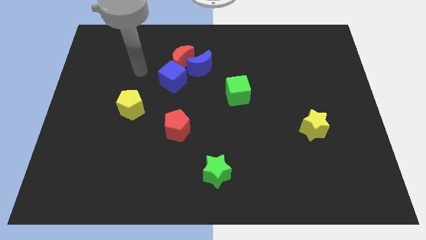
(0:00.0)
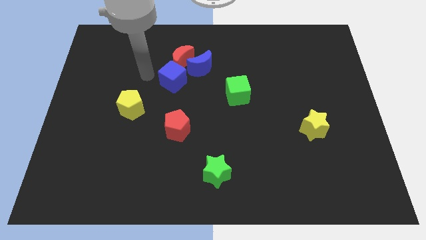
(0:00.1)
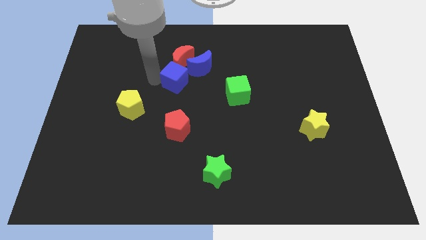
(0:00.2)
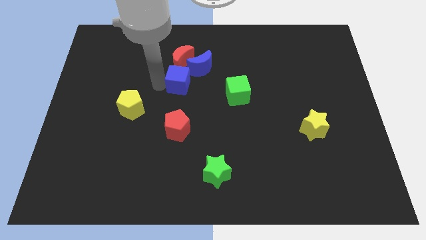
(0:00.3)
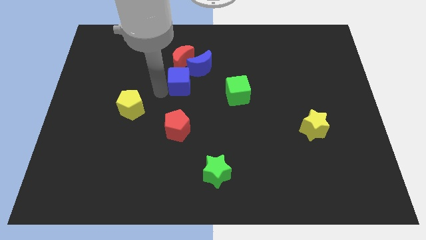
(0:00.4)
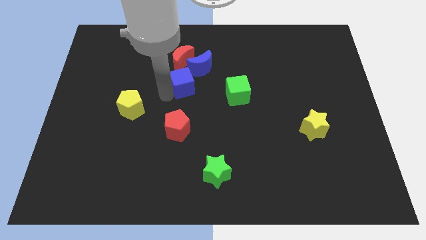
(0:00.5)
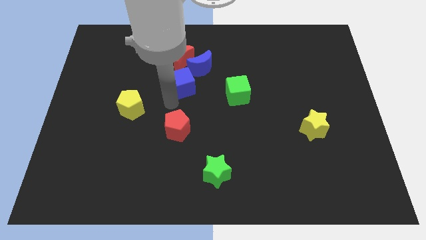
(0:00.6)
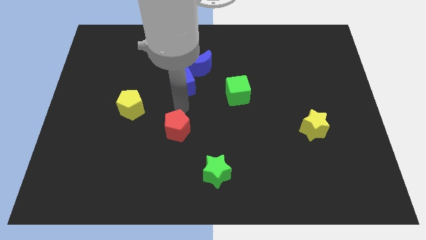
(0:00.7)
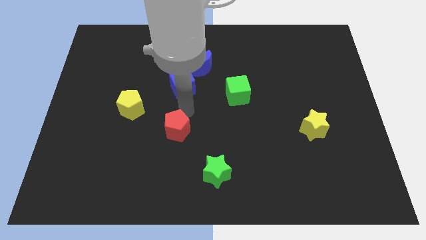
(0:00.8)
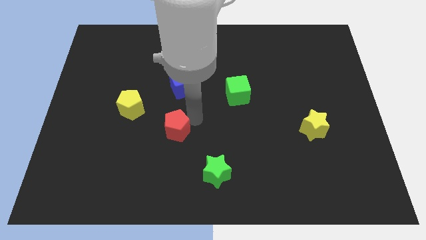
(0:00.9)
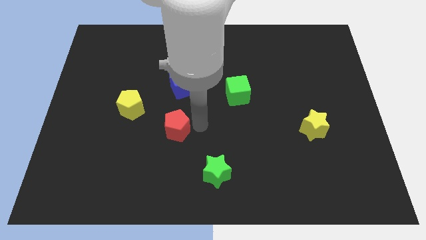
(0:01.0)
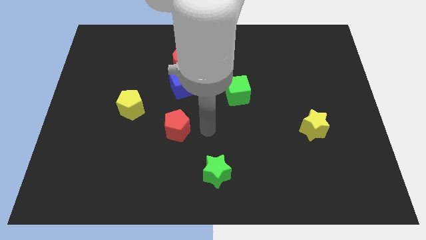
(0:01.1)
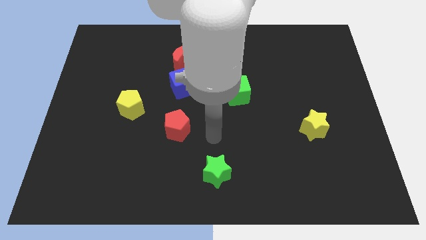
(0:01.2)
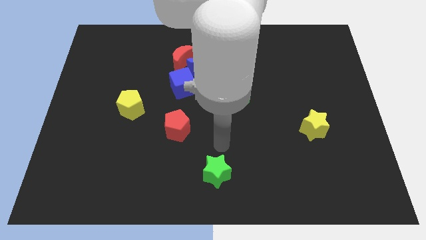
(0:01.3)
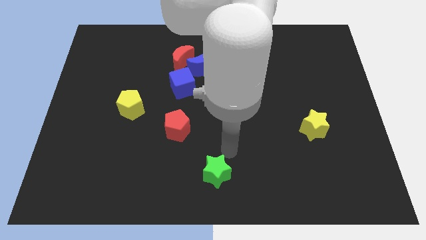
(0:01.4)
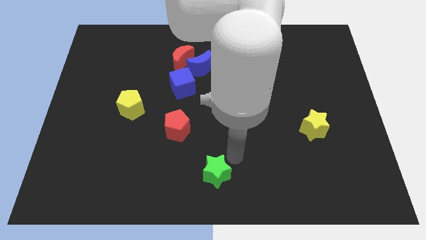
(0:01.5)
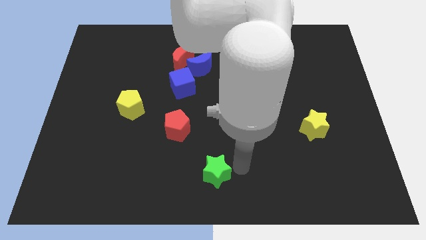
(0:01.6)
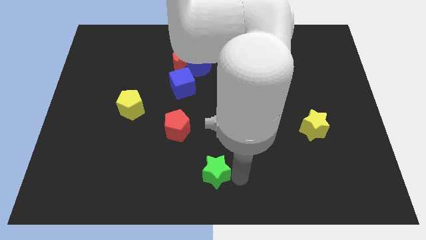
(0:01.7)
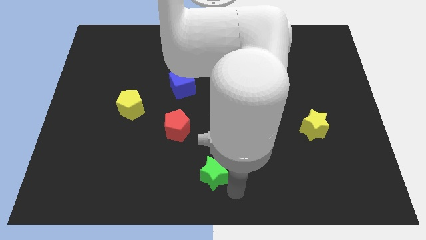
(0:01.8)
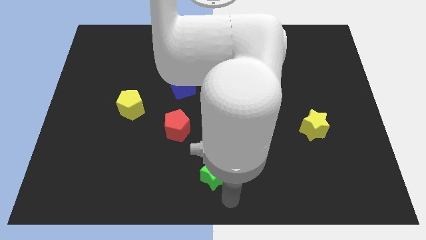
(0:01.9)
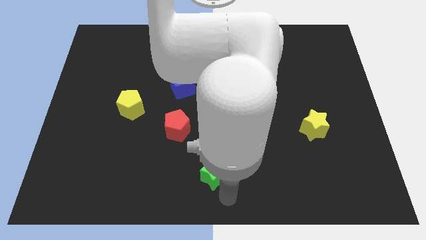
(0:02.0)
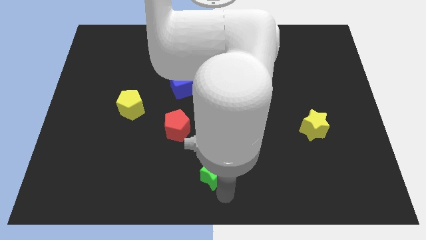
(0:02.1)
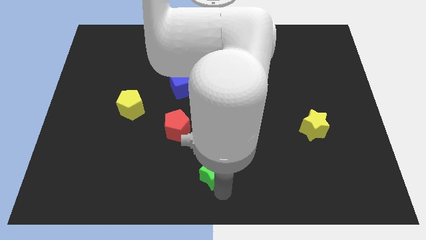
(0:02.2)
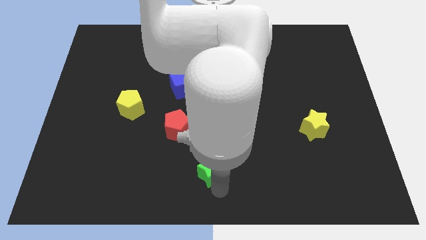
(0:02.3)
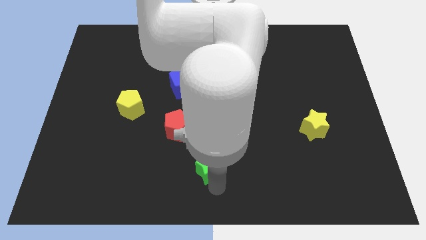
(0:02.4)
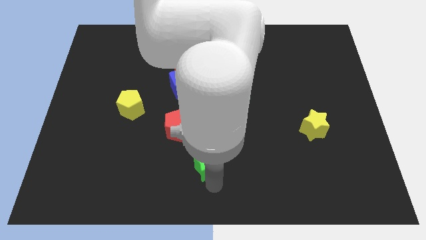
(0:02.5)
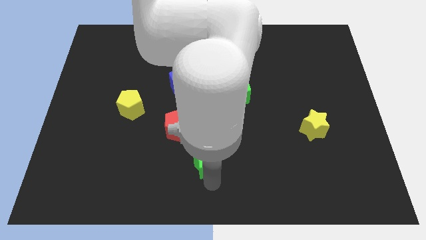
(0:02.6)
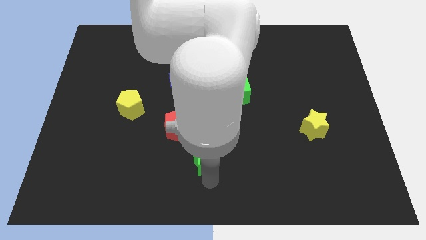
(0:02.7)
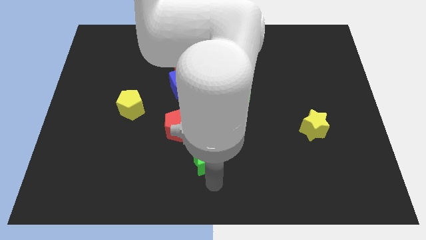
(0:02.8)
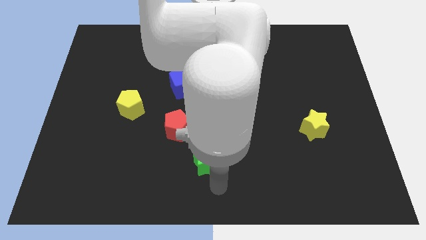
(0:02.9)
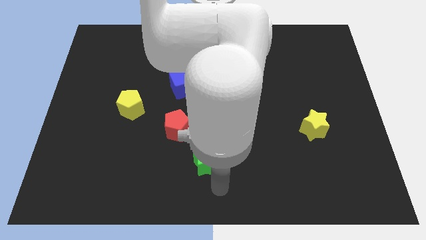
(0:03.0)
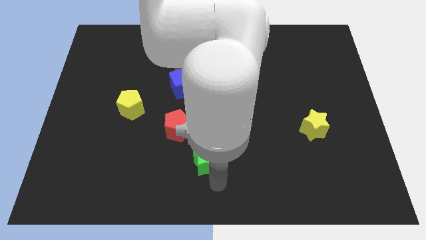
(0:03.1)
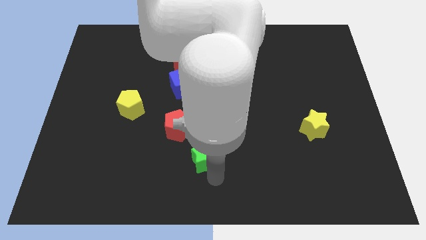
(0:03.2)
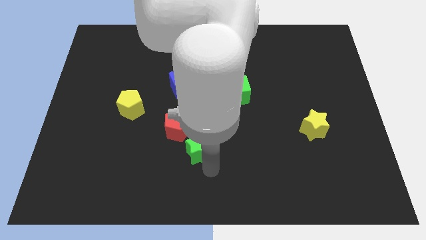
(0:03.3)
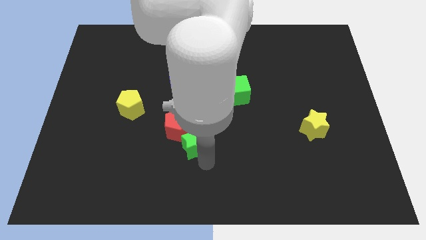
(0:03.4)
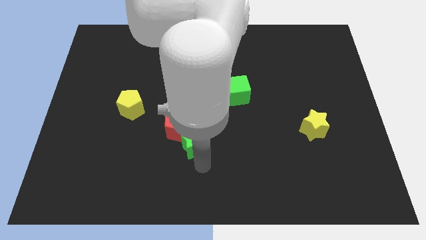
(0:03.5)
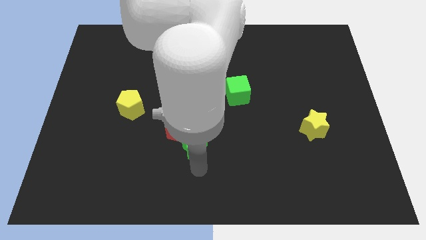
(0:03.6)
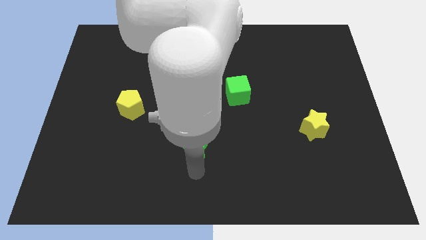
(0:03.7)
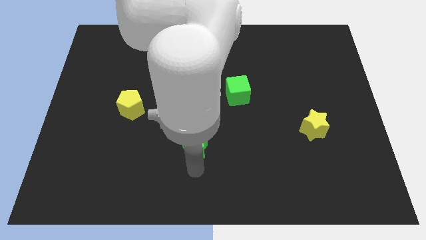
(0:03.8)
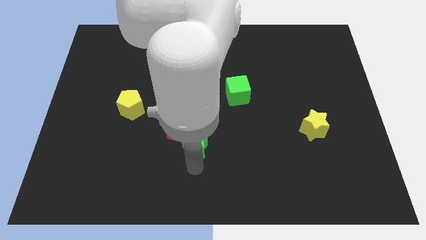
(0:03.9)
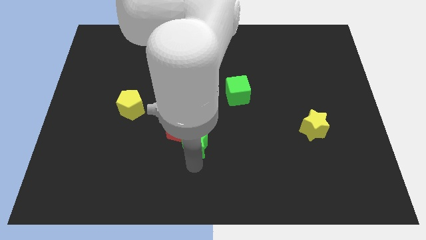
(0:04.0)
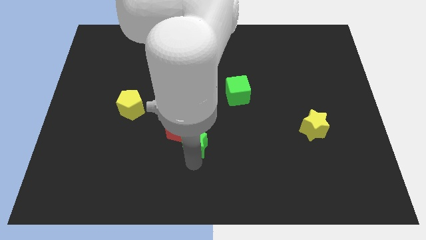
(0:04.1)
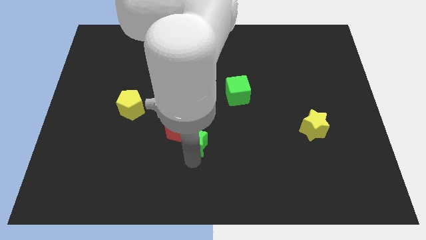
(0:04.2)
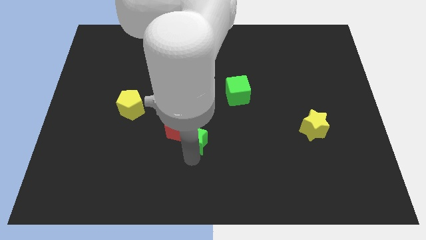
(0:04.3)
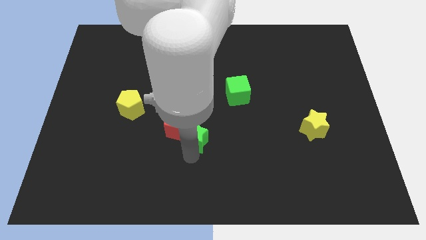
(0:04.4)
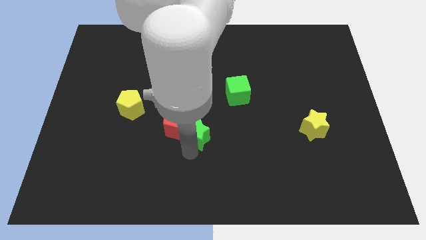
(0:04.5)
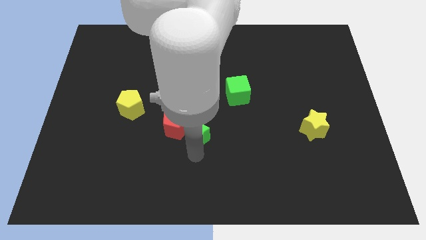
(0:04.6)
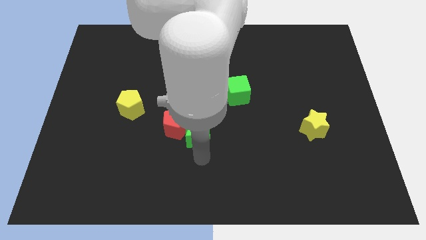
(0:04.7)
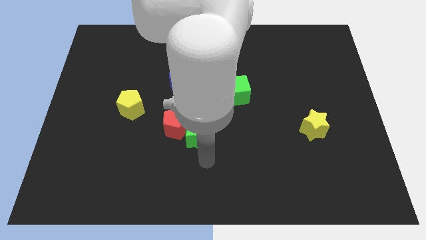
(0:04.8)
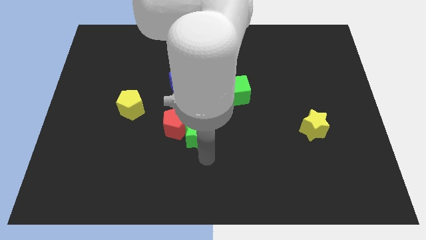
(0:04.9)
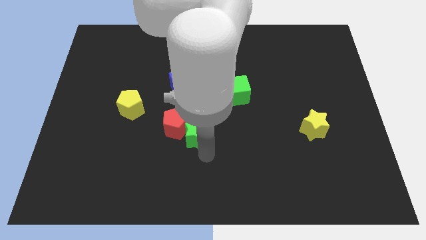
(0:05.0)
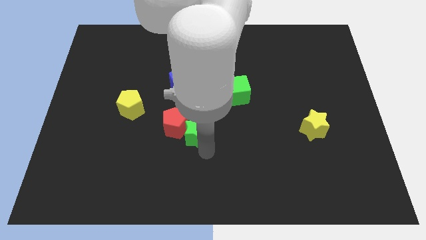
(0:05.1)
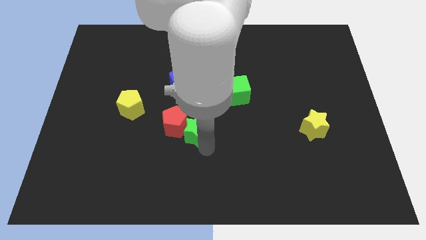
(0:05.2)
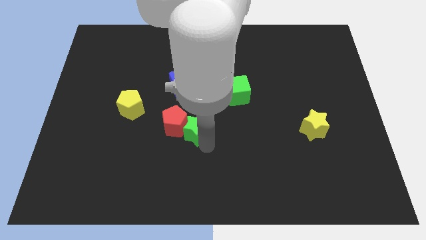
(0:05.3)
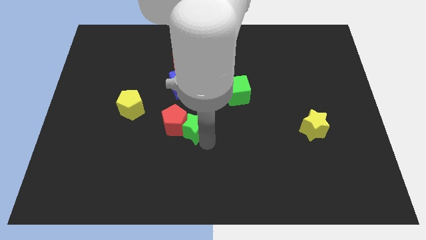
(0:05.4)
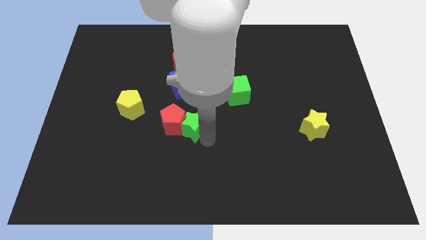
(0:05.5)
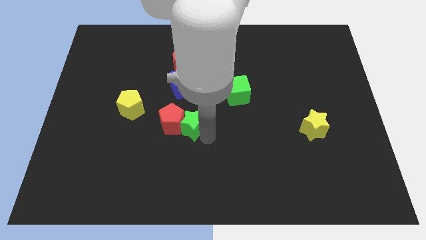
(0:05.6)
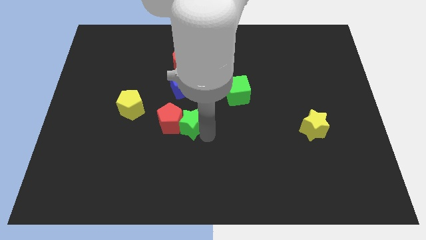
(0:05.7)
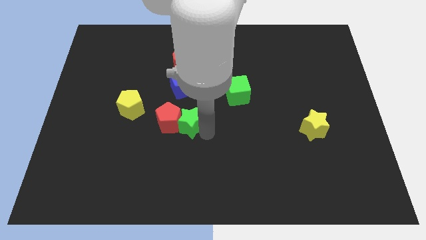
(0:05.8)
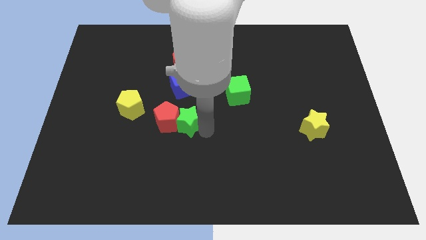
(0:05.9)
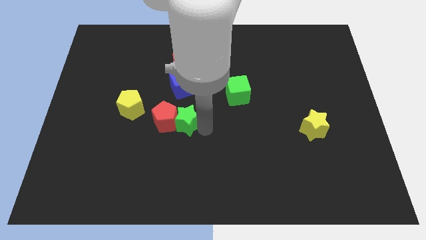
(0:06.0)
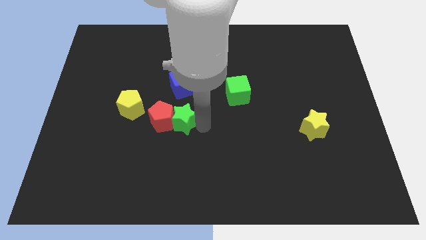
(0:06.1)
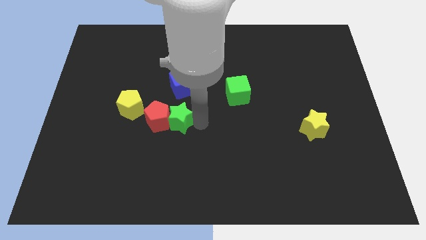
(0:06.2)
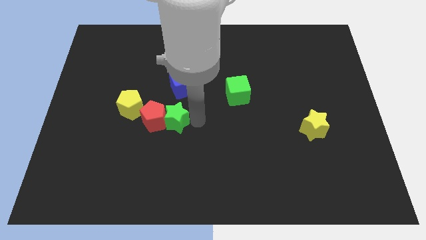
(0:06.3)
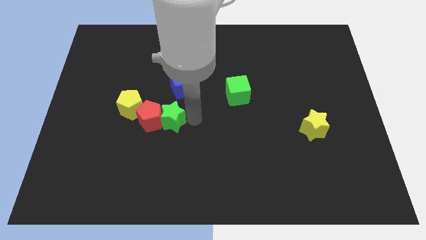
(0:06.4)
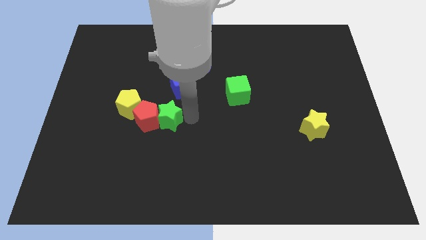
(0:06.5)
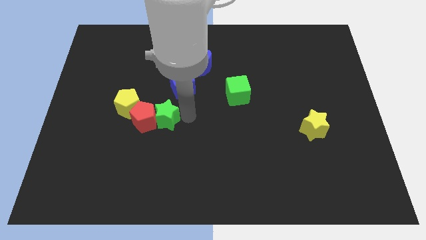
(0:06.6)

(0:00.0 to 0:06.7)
put the green star to the bottom left of the blue cube
